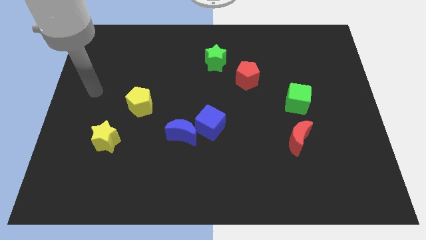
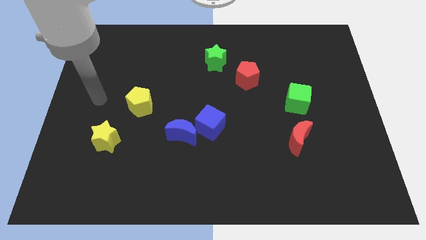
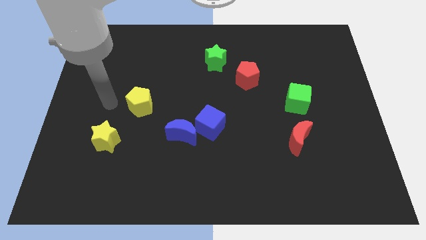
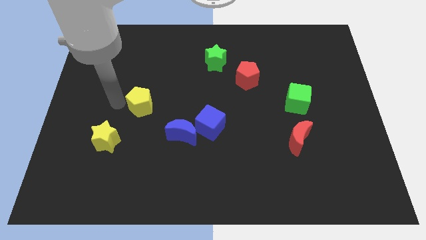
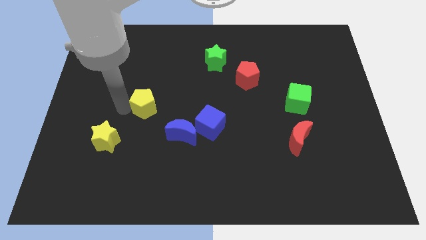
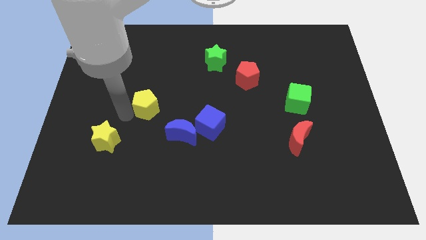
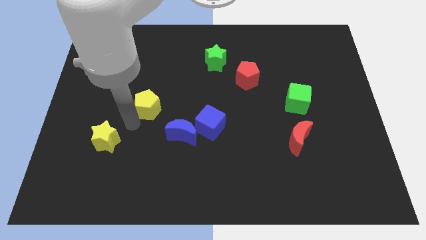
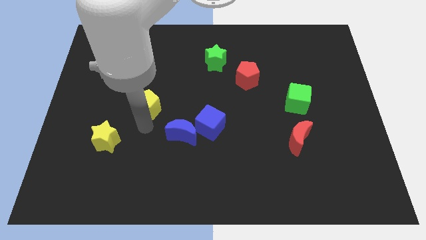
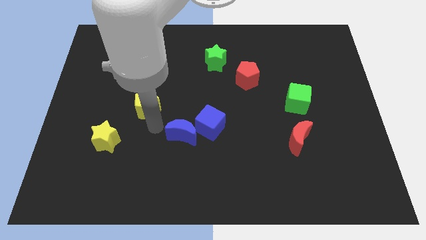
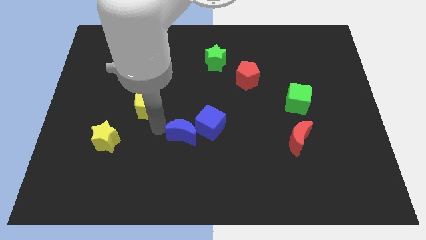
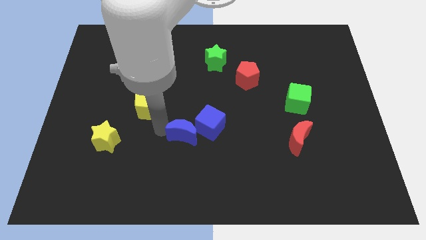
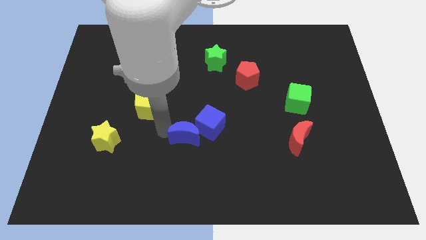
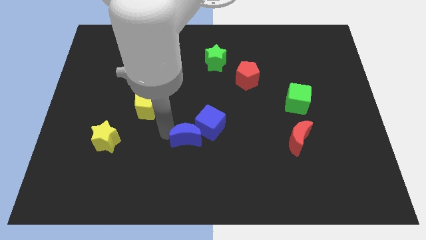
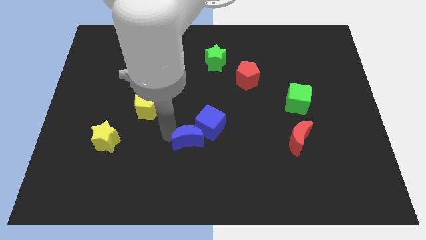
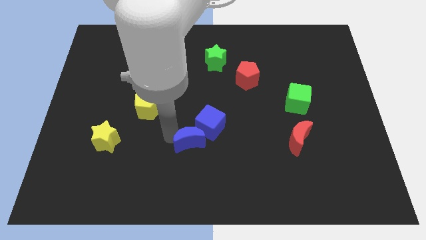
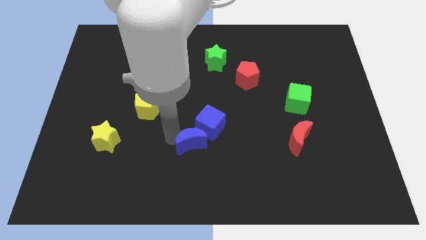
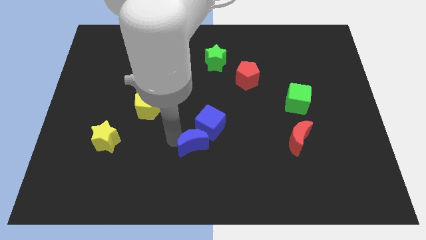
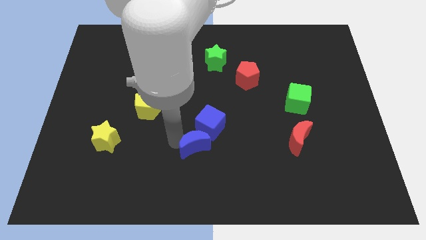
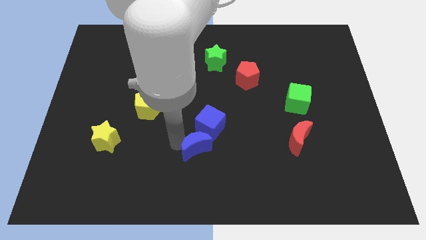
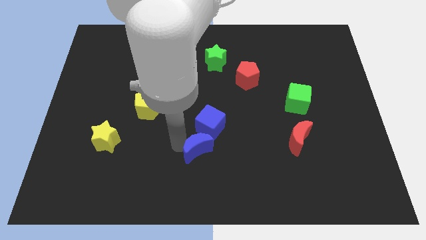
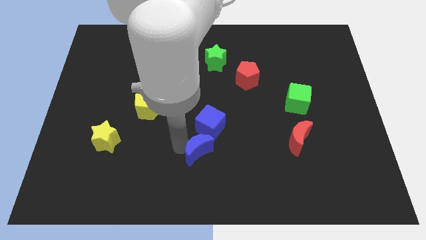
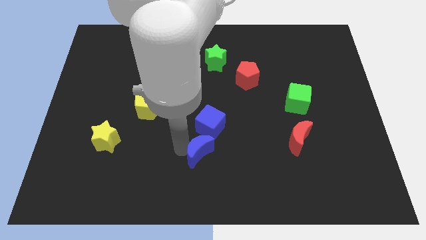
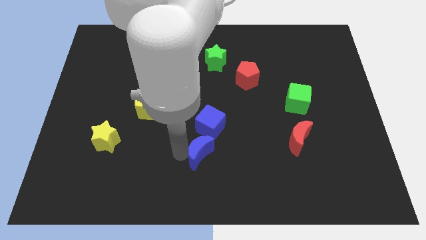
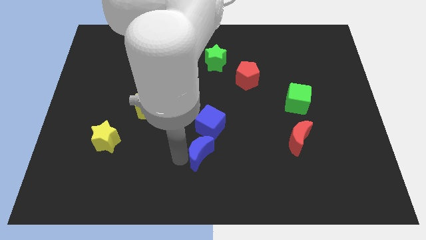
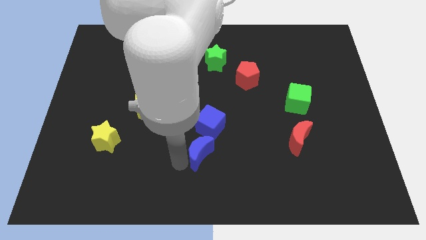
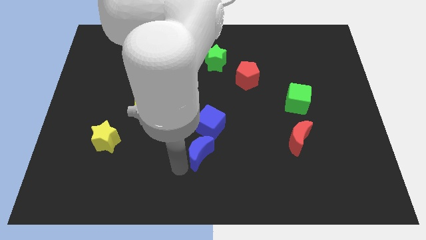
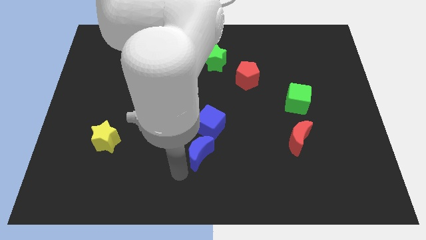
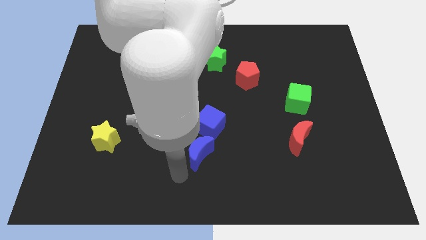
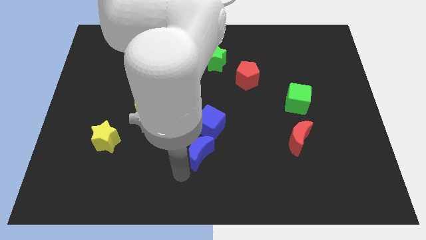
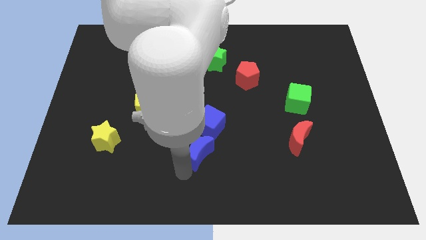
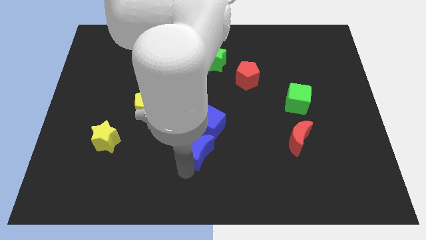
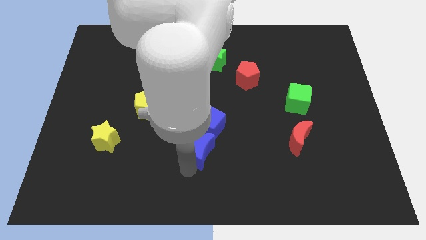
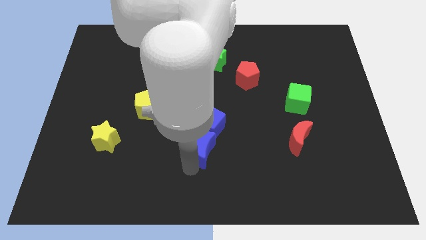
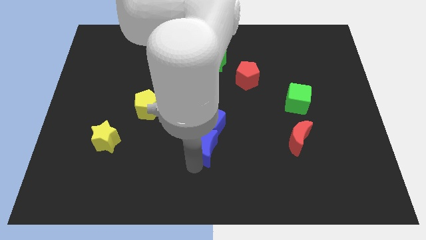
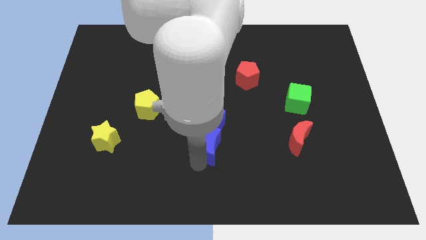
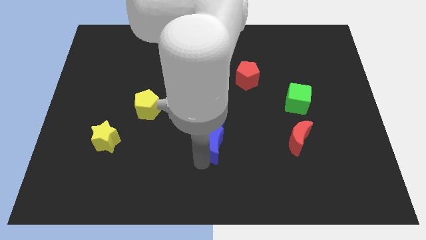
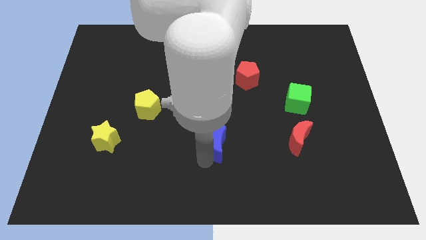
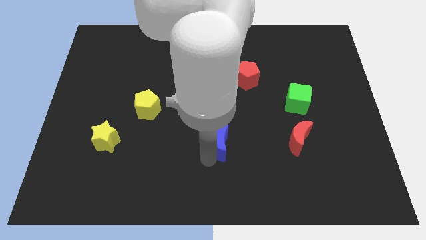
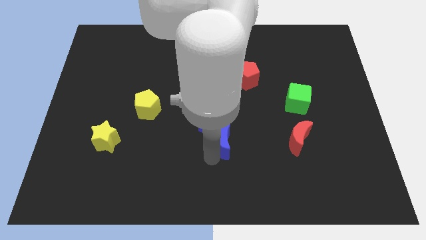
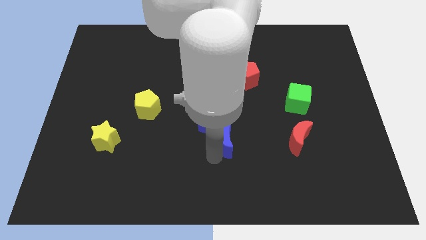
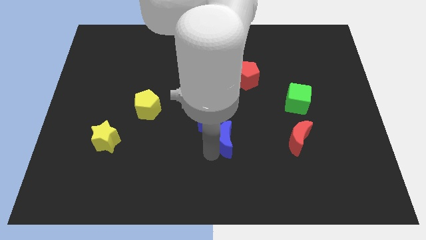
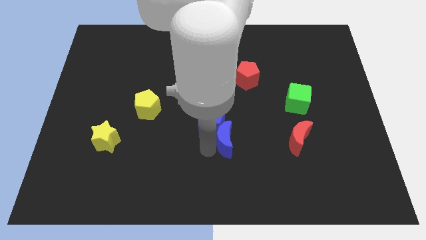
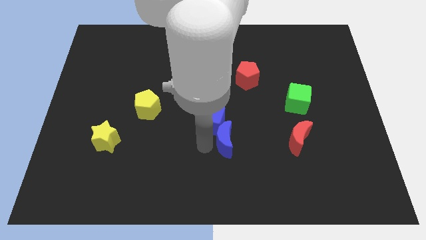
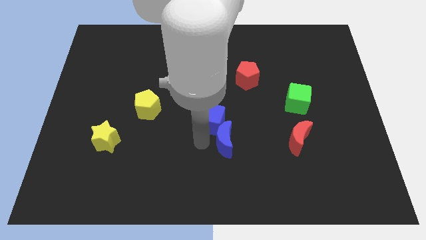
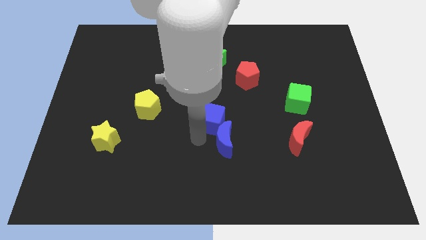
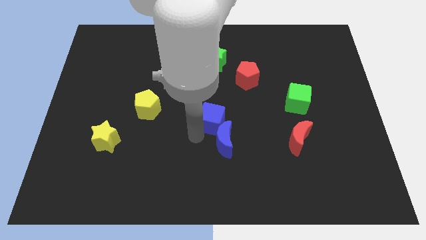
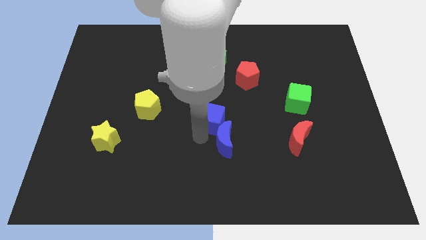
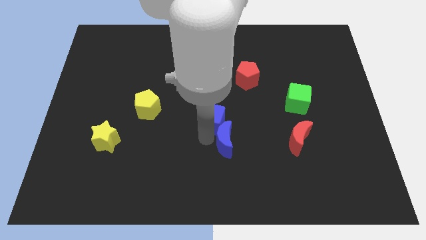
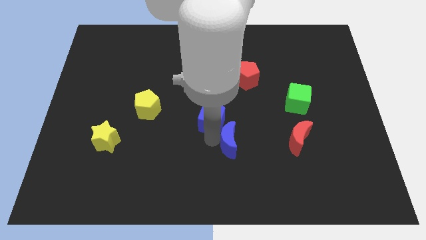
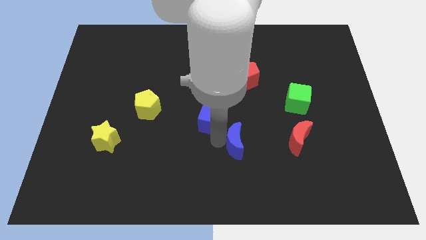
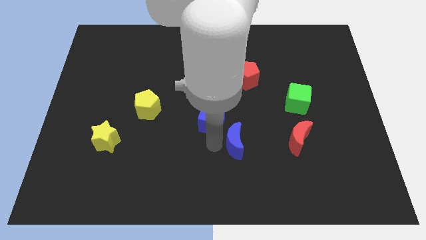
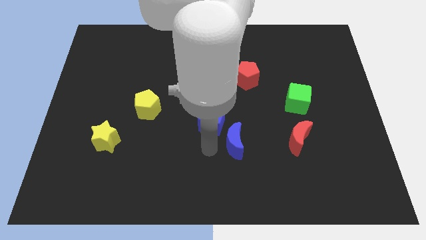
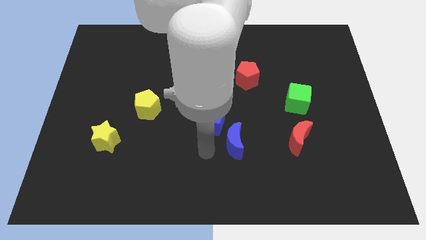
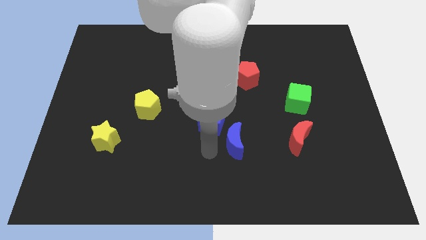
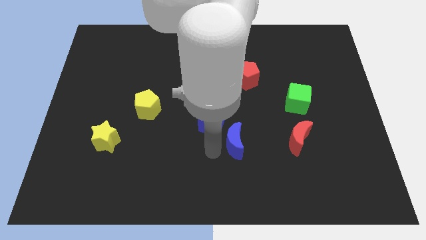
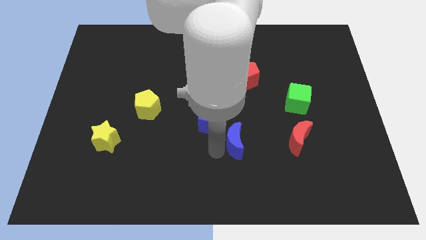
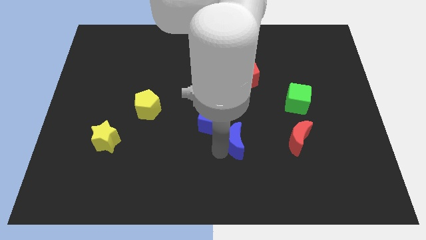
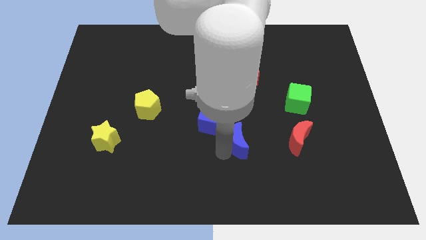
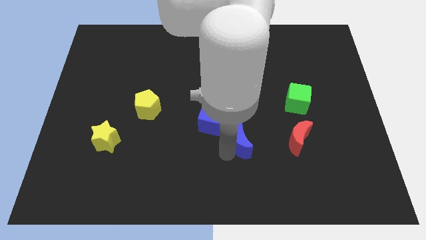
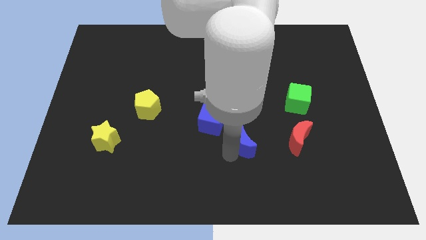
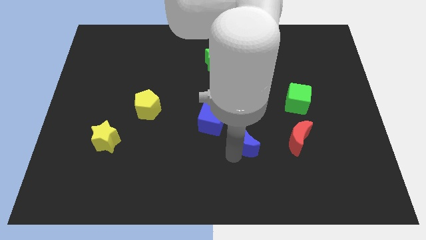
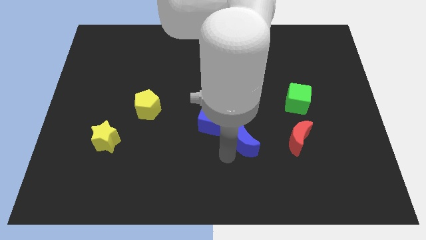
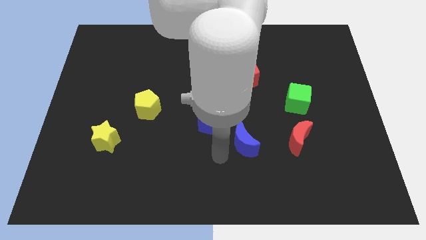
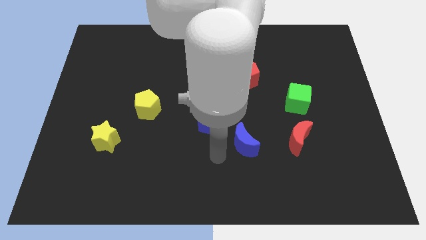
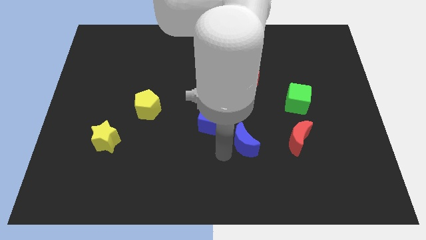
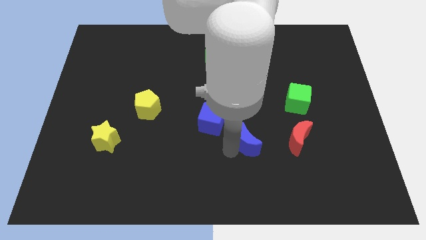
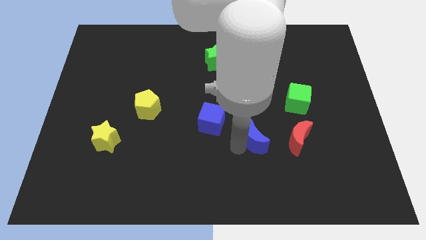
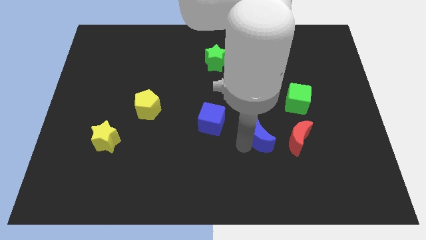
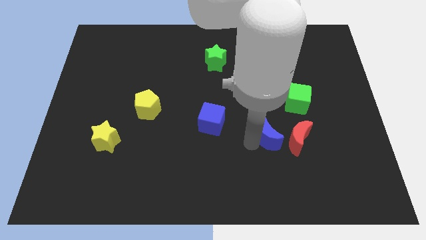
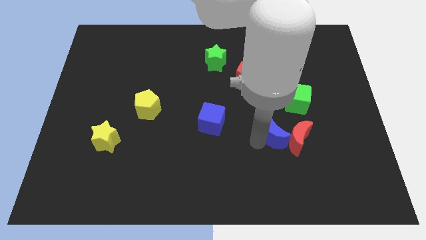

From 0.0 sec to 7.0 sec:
move the blue moon right

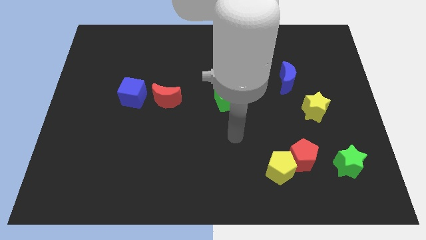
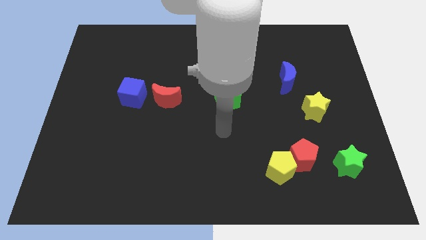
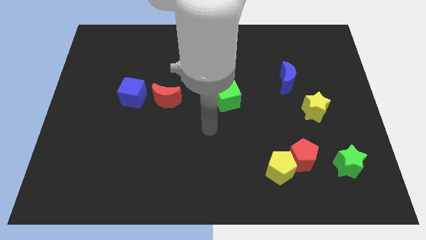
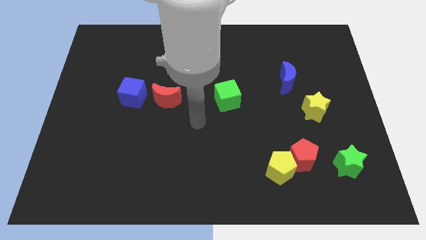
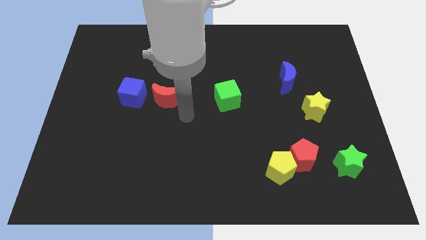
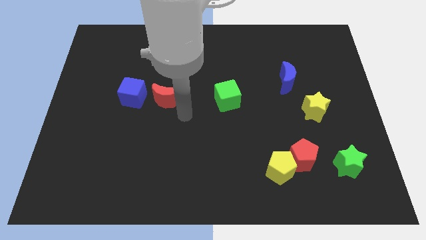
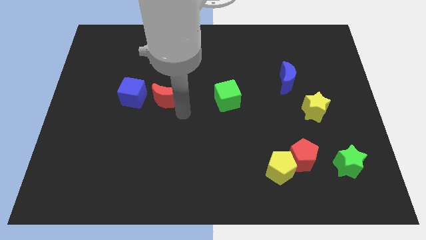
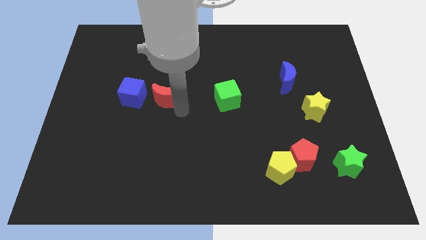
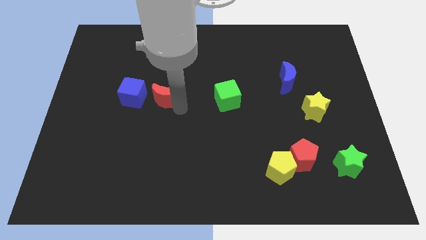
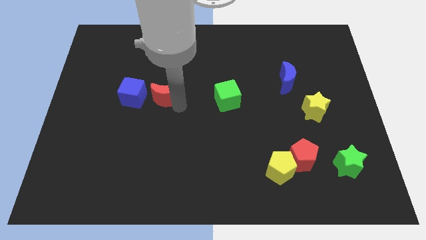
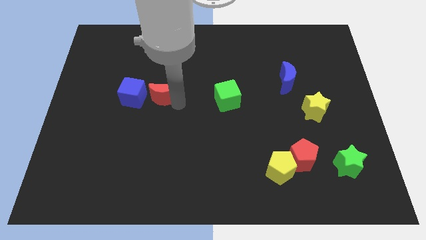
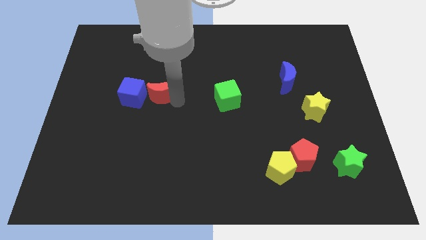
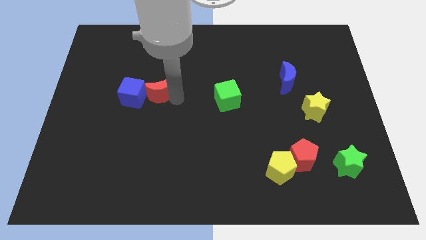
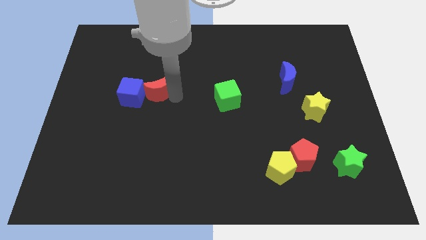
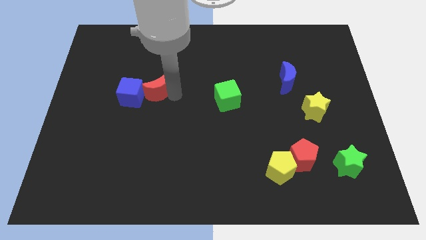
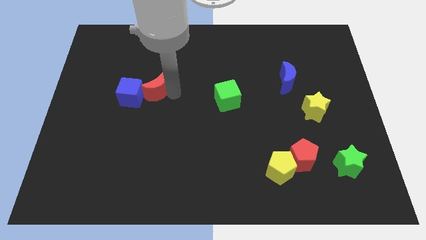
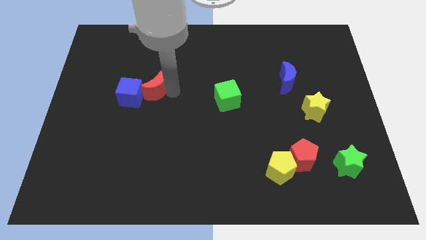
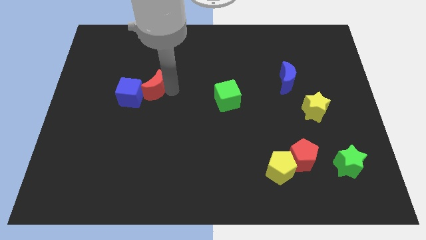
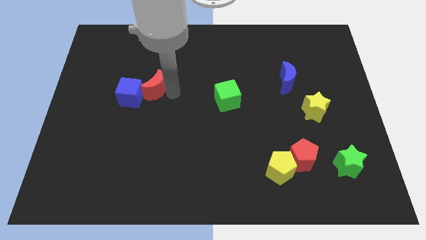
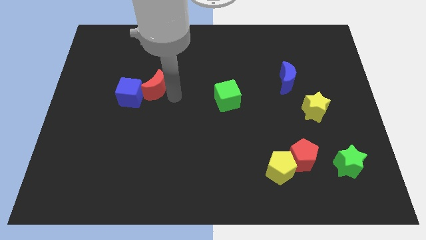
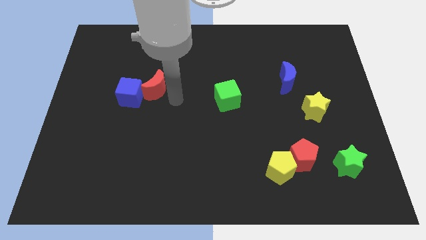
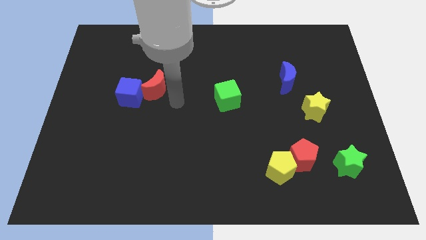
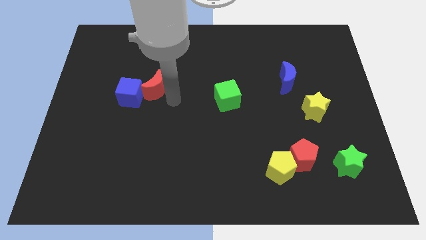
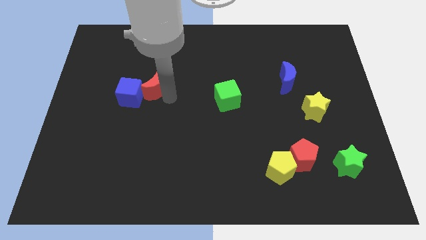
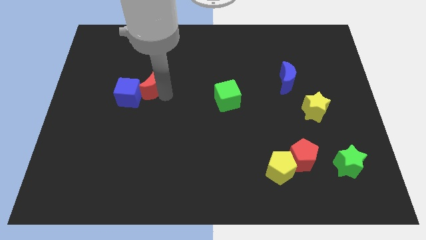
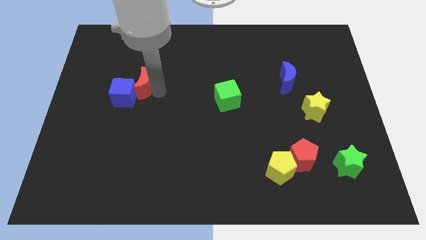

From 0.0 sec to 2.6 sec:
move the red moon up and to the left diagonally a little
